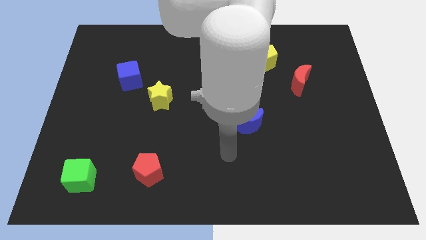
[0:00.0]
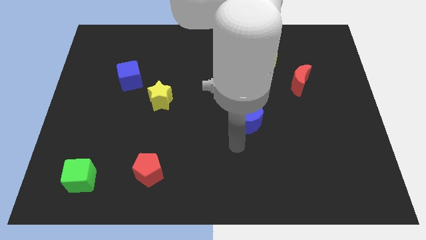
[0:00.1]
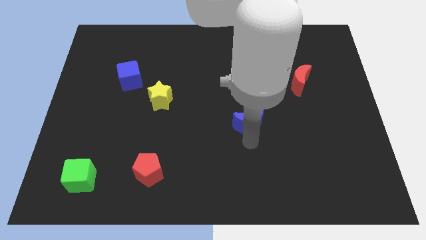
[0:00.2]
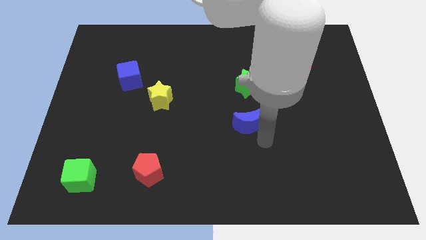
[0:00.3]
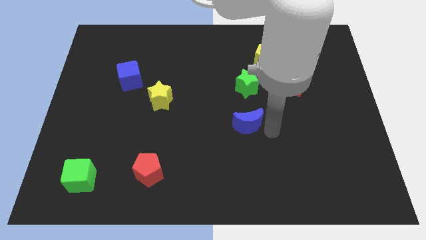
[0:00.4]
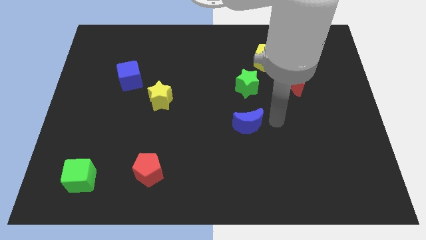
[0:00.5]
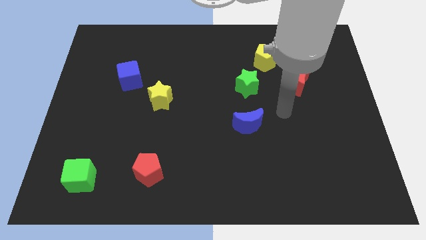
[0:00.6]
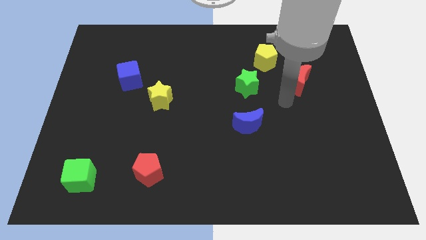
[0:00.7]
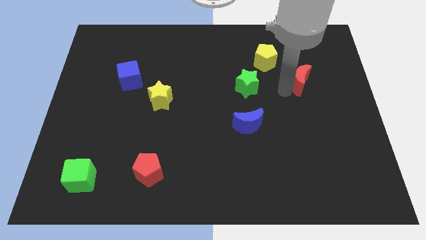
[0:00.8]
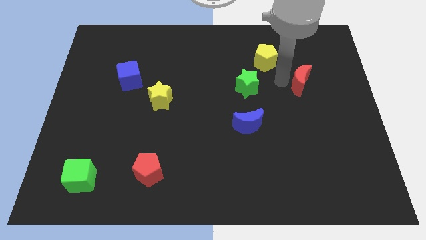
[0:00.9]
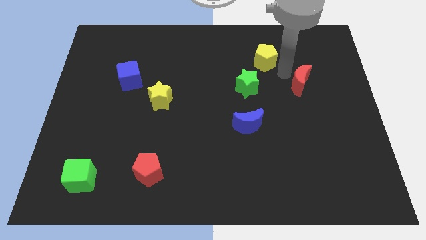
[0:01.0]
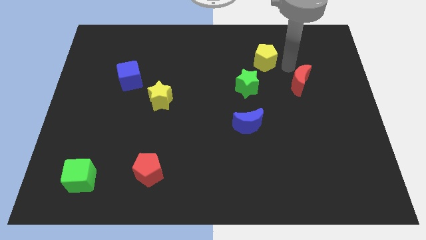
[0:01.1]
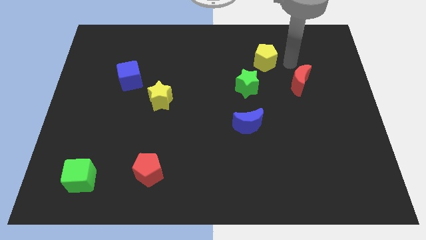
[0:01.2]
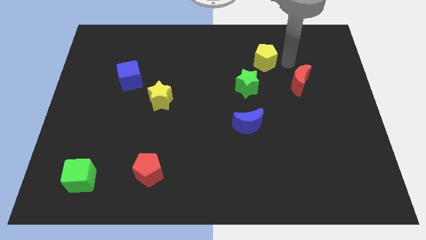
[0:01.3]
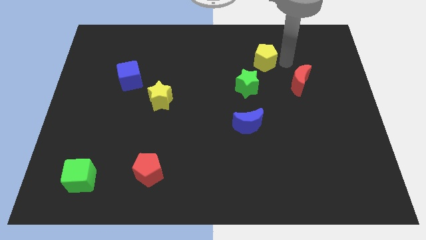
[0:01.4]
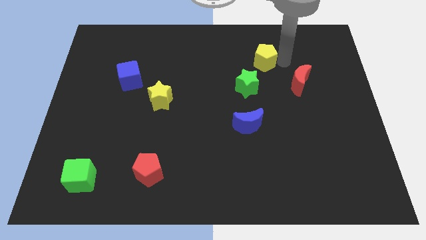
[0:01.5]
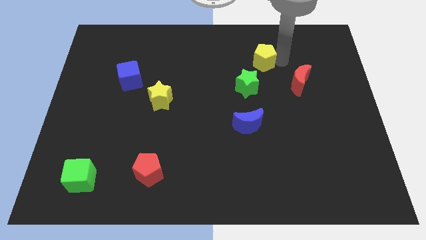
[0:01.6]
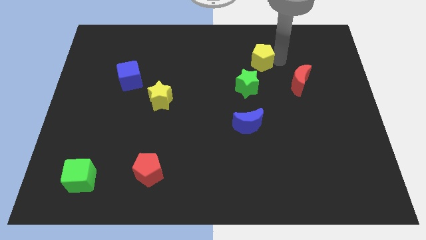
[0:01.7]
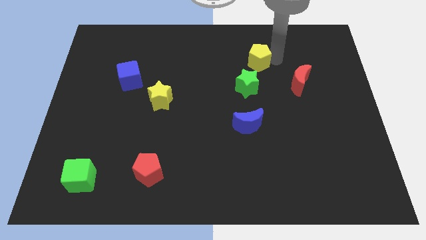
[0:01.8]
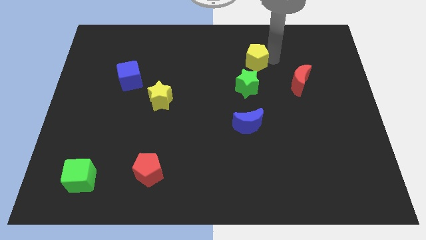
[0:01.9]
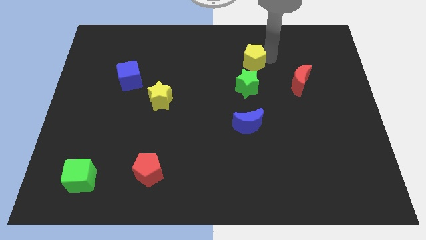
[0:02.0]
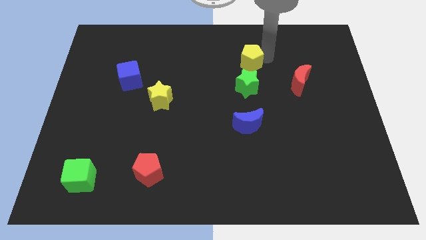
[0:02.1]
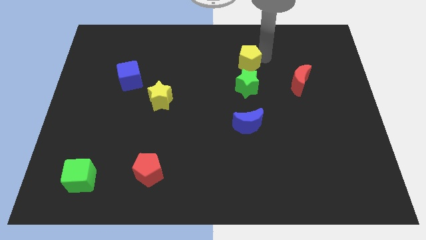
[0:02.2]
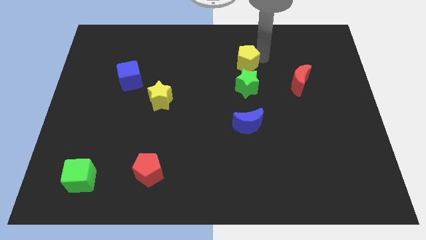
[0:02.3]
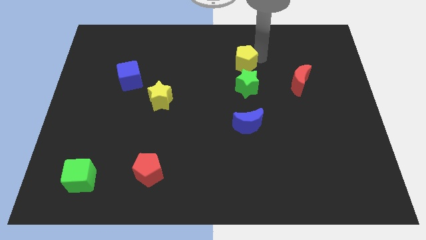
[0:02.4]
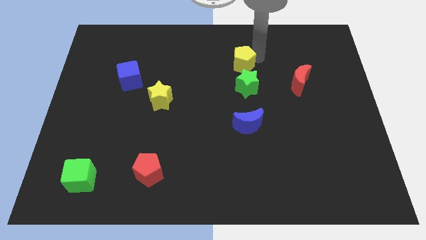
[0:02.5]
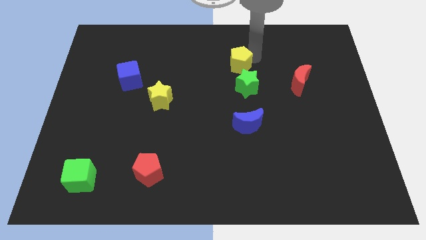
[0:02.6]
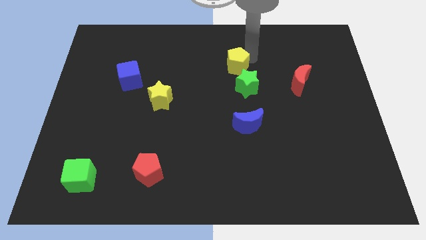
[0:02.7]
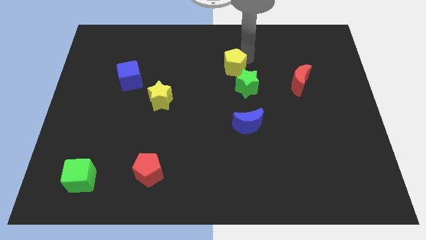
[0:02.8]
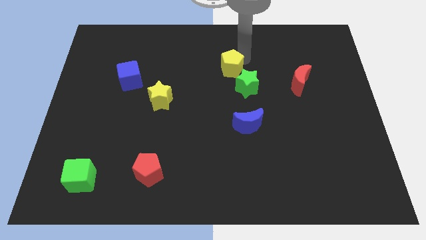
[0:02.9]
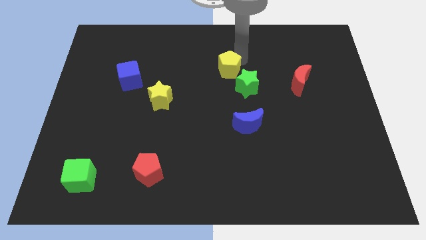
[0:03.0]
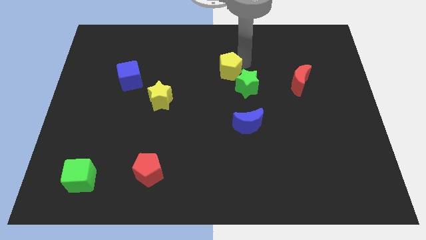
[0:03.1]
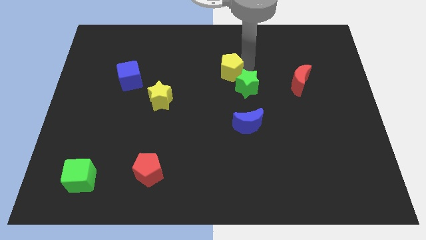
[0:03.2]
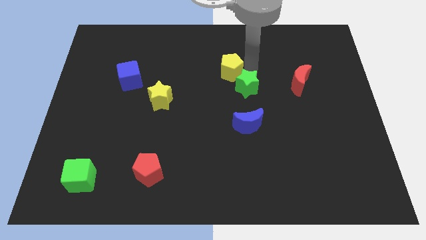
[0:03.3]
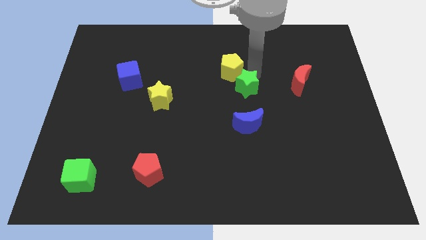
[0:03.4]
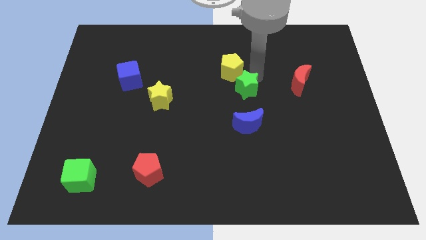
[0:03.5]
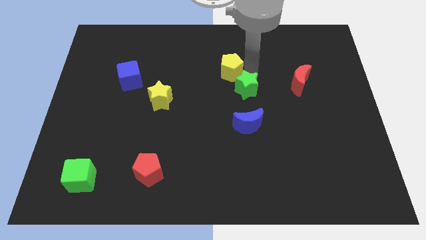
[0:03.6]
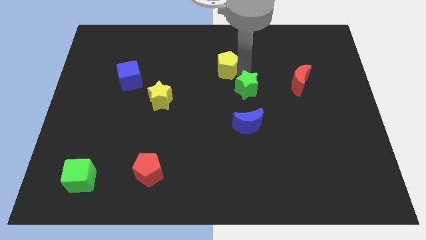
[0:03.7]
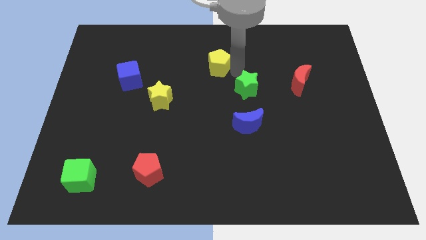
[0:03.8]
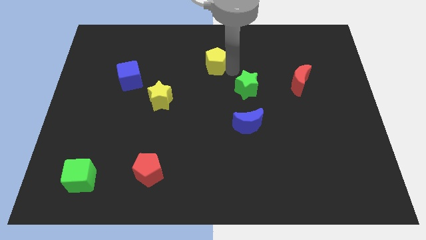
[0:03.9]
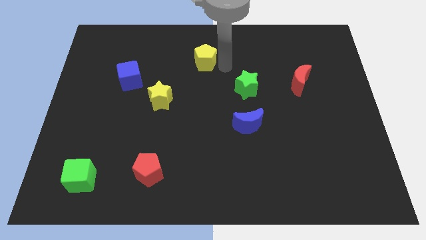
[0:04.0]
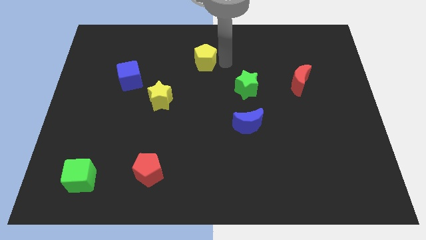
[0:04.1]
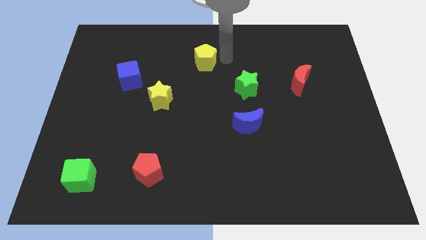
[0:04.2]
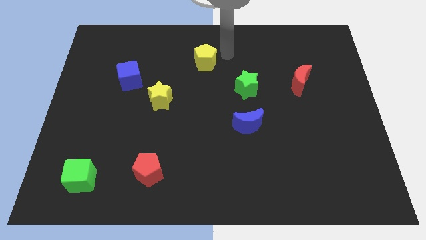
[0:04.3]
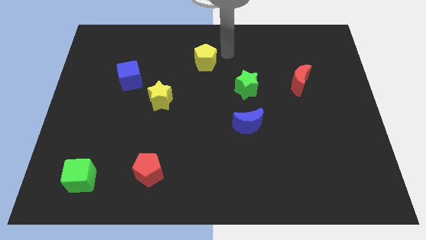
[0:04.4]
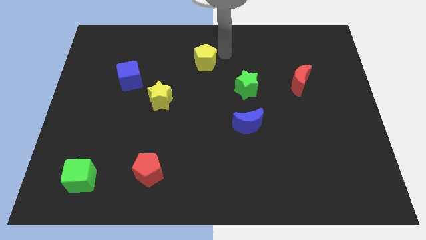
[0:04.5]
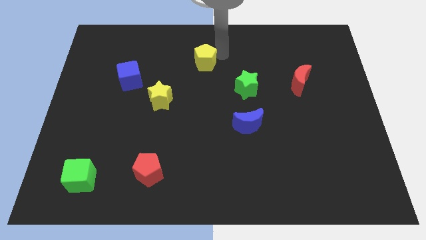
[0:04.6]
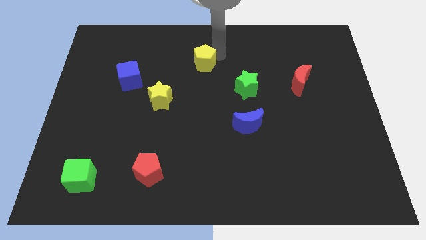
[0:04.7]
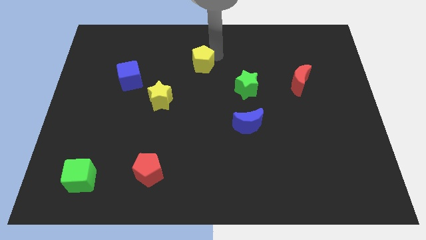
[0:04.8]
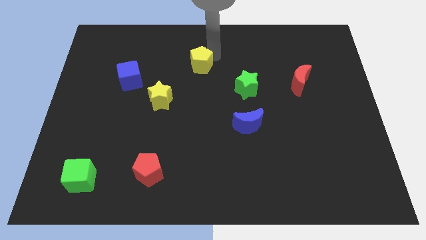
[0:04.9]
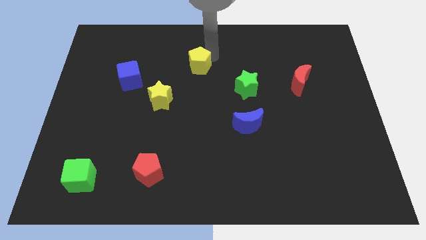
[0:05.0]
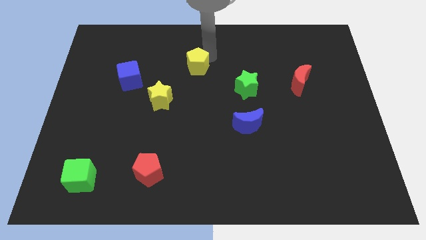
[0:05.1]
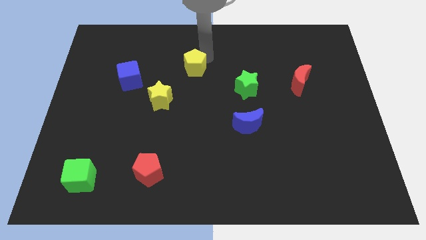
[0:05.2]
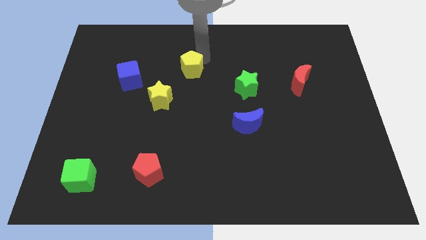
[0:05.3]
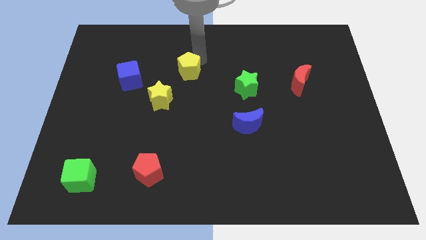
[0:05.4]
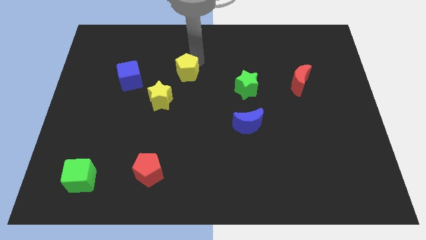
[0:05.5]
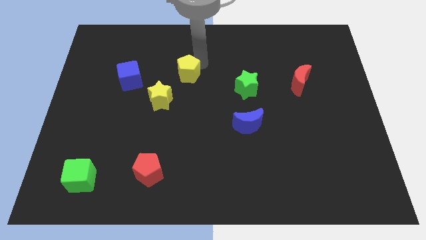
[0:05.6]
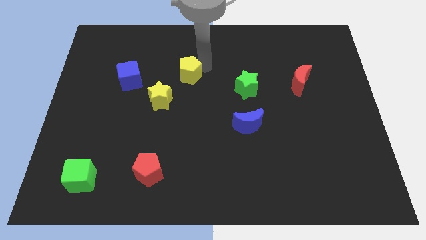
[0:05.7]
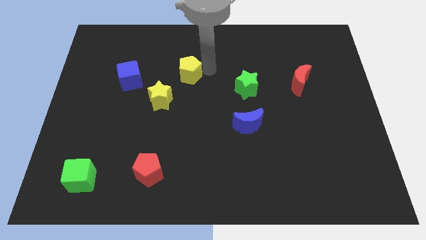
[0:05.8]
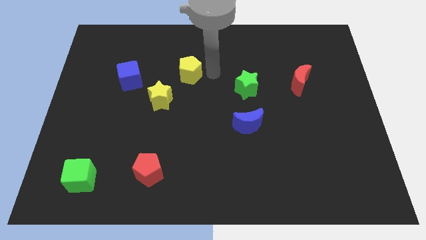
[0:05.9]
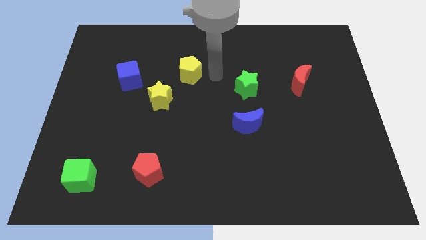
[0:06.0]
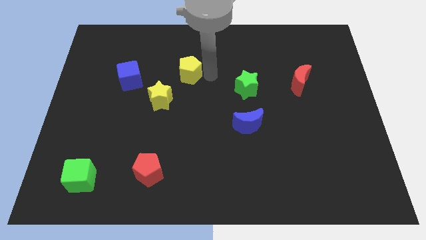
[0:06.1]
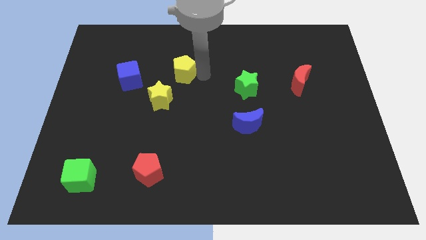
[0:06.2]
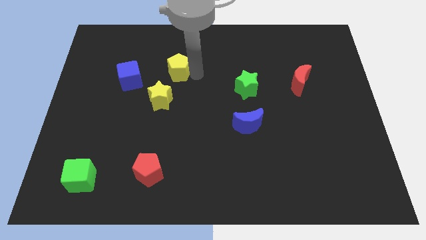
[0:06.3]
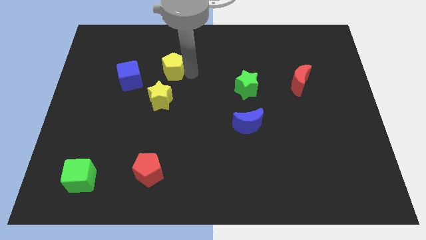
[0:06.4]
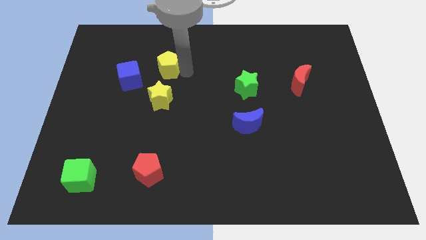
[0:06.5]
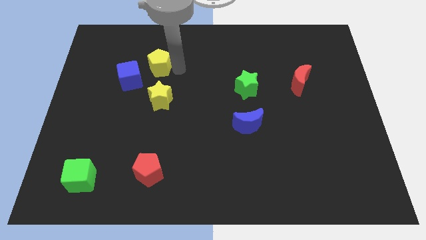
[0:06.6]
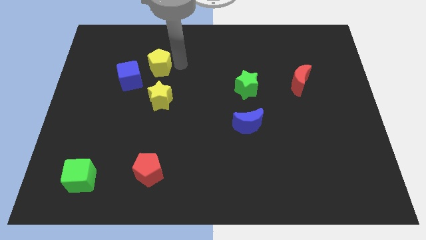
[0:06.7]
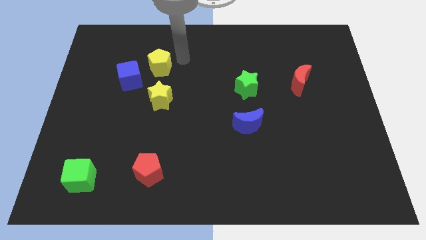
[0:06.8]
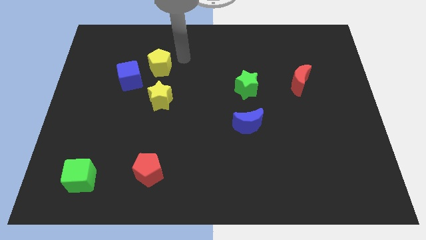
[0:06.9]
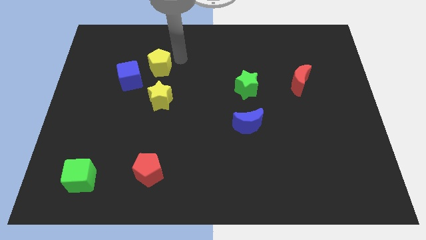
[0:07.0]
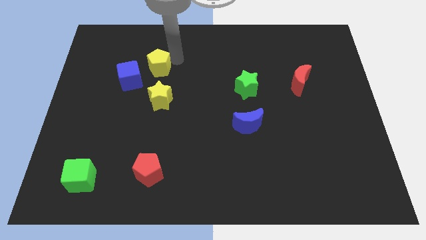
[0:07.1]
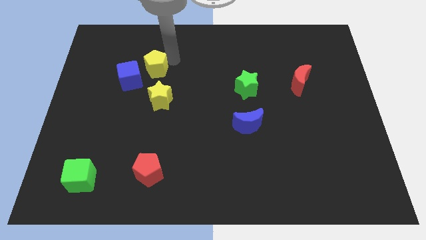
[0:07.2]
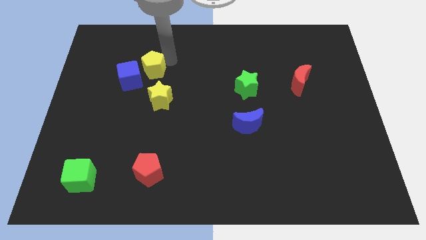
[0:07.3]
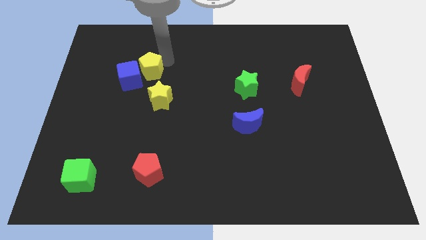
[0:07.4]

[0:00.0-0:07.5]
put the yellow pentagon to the blue cube
